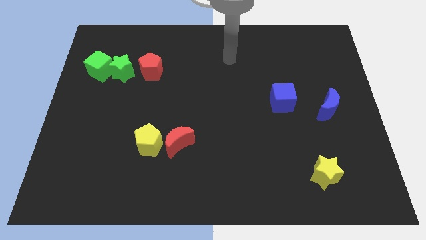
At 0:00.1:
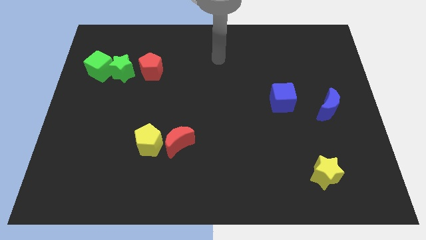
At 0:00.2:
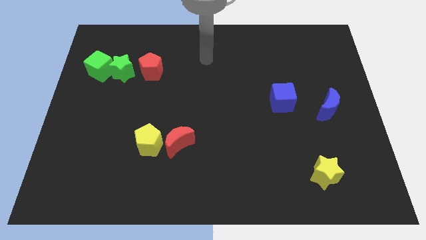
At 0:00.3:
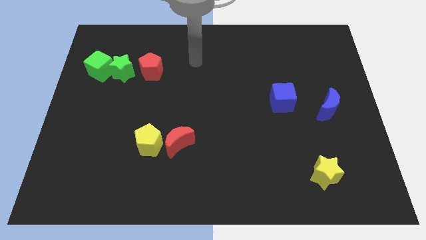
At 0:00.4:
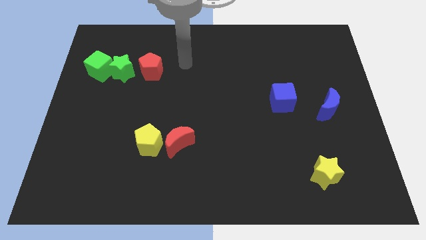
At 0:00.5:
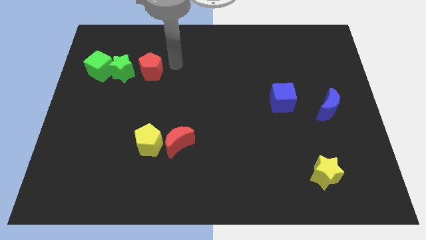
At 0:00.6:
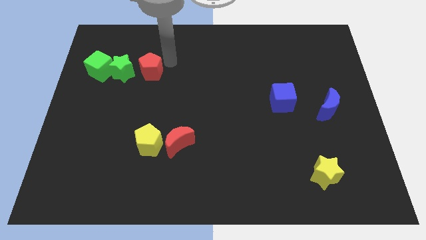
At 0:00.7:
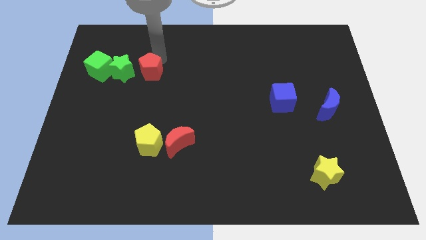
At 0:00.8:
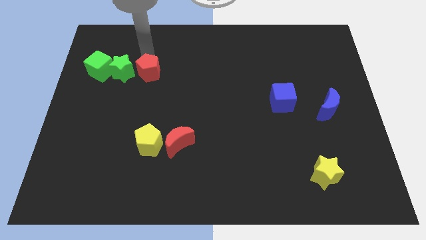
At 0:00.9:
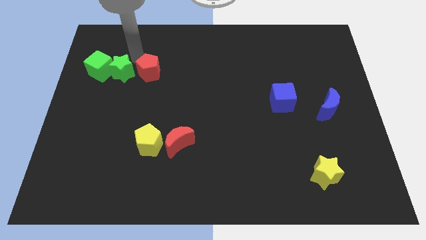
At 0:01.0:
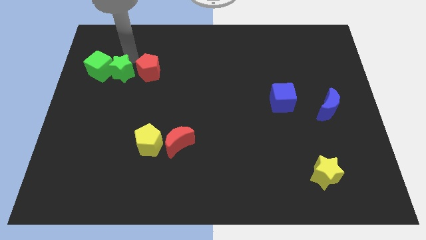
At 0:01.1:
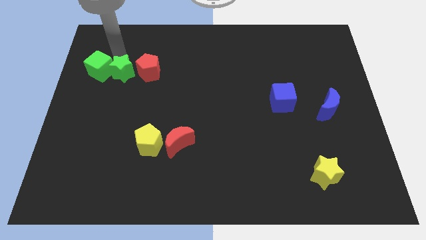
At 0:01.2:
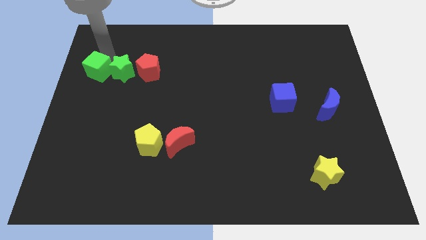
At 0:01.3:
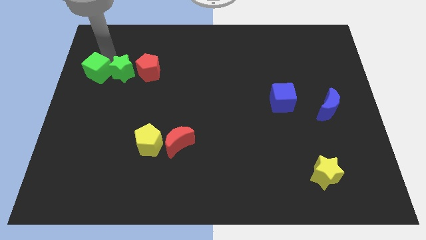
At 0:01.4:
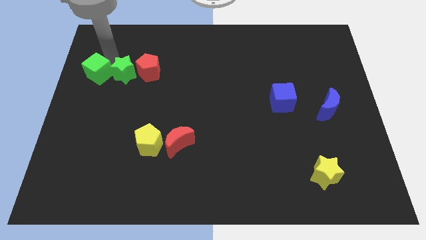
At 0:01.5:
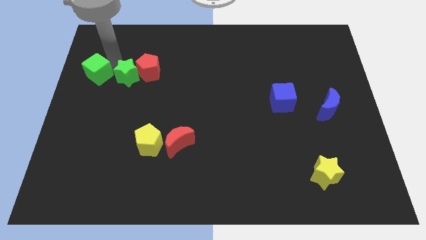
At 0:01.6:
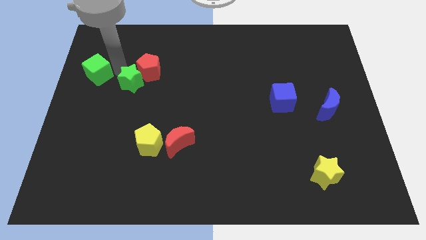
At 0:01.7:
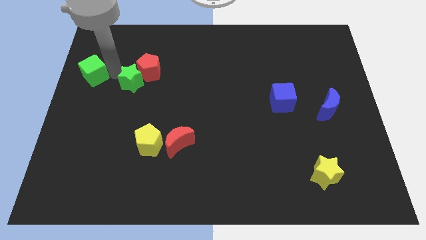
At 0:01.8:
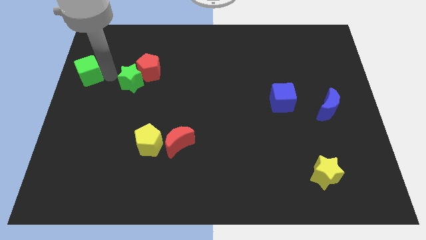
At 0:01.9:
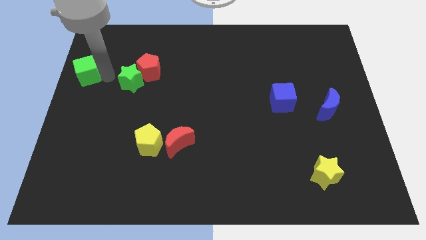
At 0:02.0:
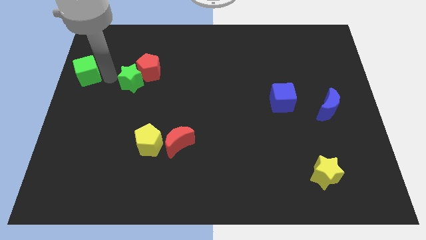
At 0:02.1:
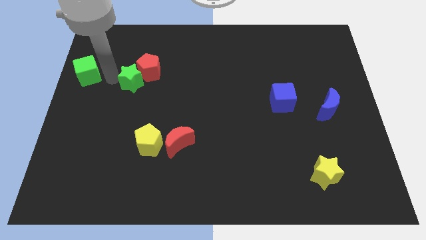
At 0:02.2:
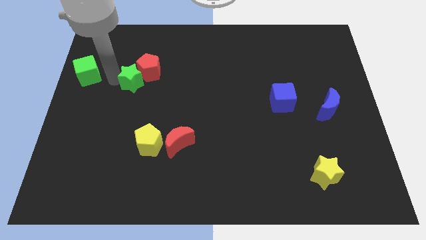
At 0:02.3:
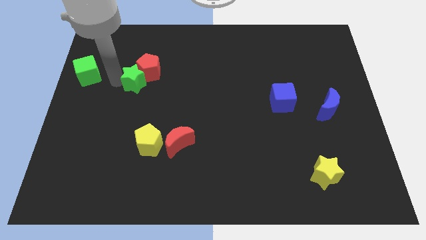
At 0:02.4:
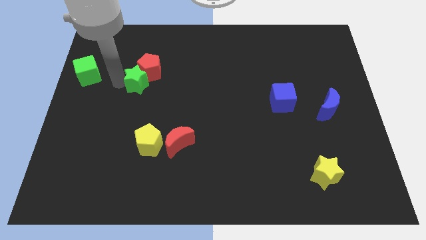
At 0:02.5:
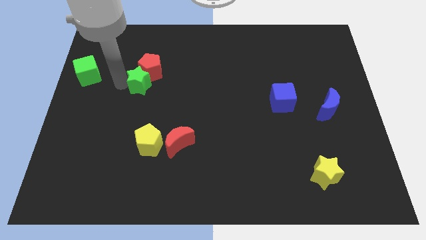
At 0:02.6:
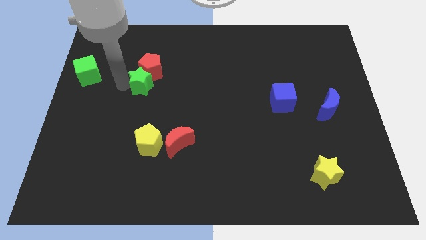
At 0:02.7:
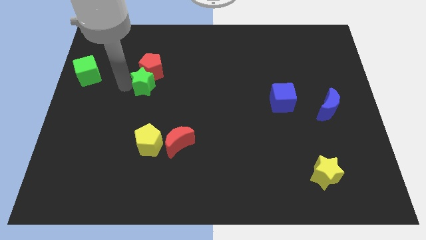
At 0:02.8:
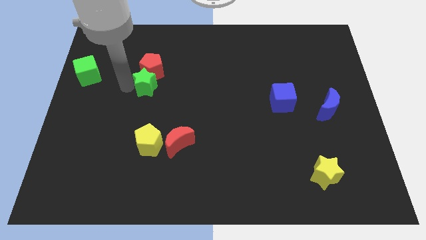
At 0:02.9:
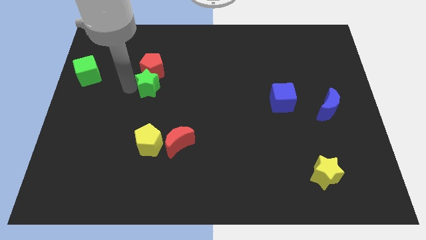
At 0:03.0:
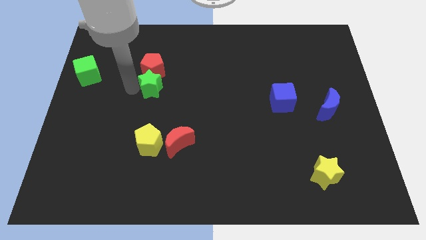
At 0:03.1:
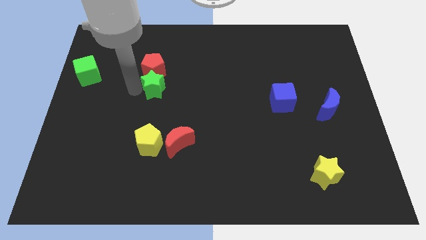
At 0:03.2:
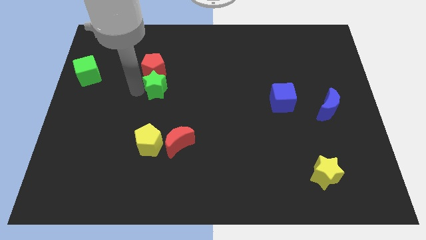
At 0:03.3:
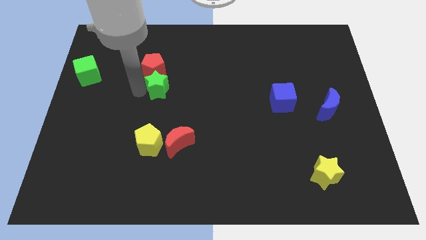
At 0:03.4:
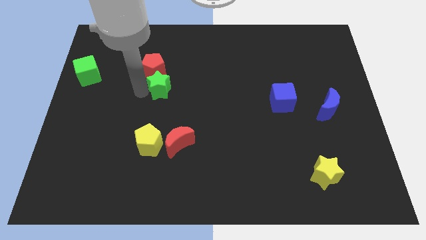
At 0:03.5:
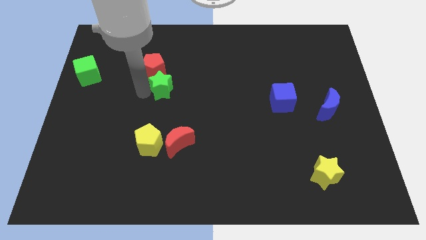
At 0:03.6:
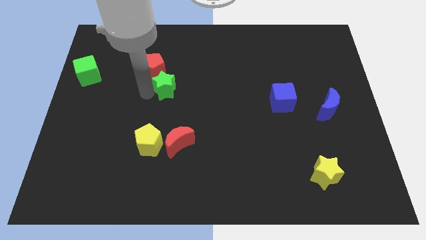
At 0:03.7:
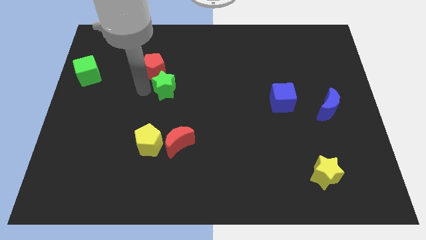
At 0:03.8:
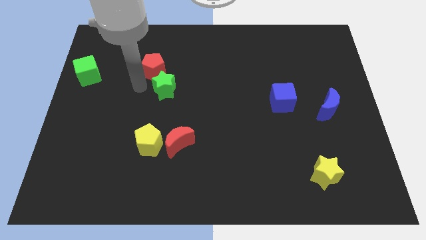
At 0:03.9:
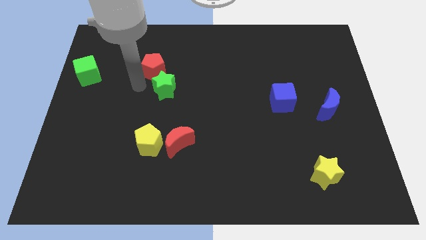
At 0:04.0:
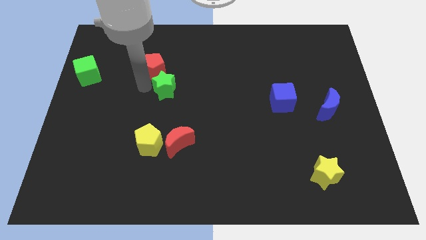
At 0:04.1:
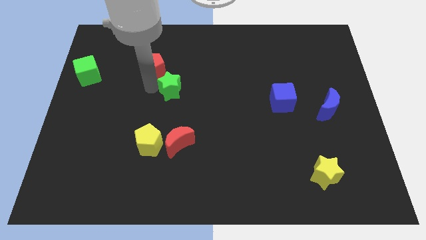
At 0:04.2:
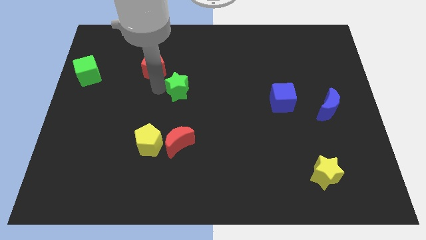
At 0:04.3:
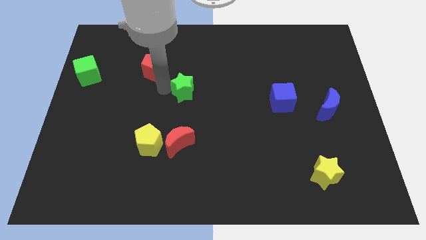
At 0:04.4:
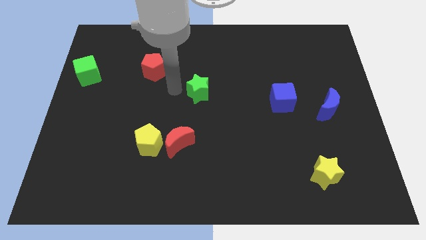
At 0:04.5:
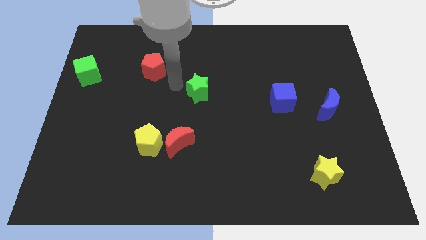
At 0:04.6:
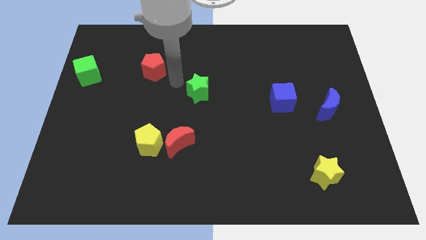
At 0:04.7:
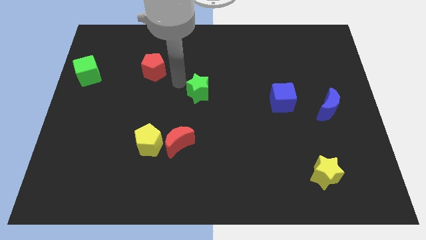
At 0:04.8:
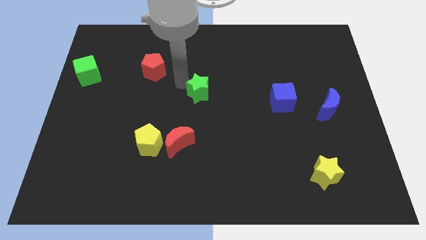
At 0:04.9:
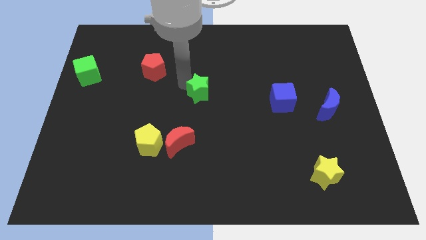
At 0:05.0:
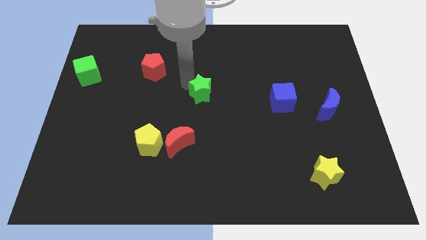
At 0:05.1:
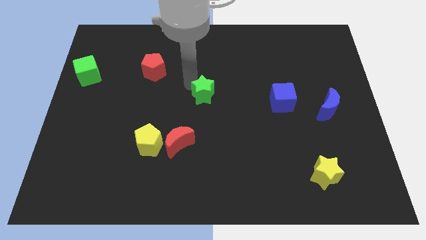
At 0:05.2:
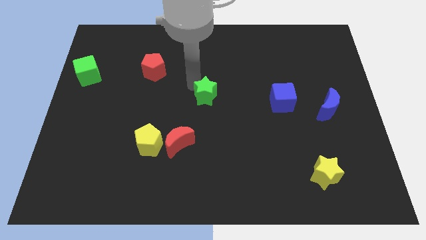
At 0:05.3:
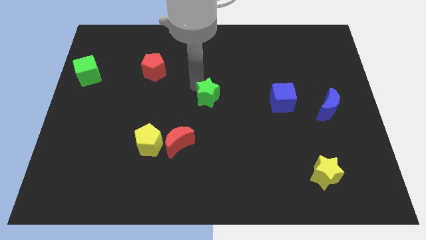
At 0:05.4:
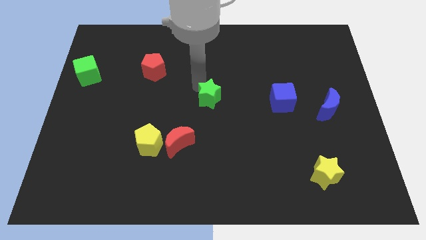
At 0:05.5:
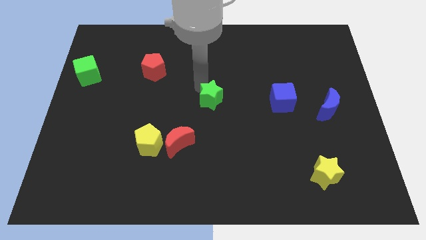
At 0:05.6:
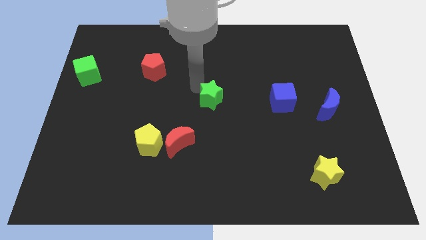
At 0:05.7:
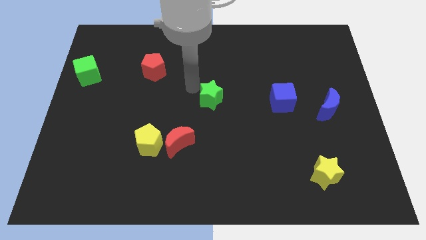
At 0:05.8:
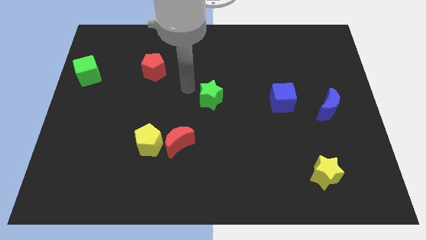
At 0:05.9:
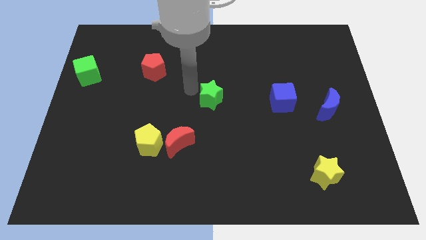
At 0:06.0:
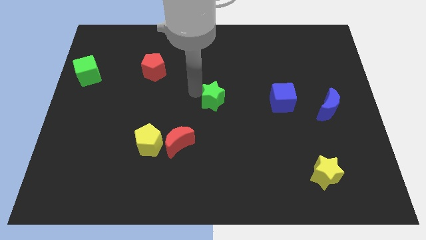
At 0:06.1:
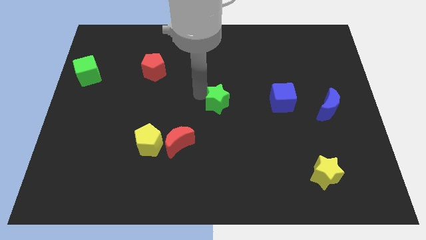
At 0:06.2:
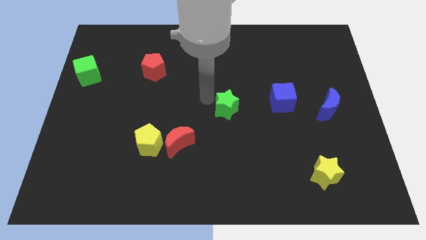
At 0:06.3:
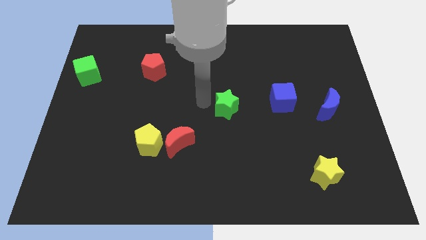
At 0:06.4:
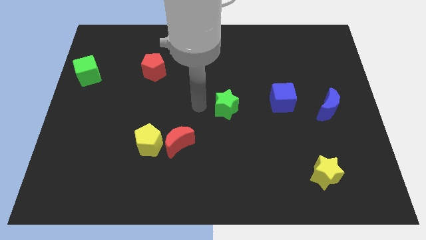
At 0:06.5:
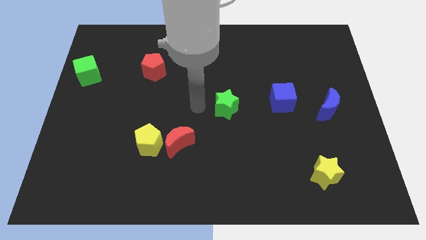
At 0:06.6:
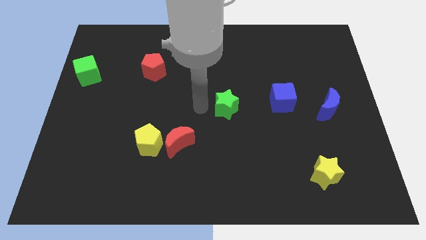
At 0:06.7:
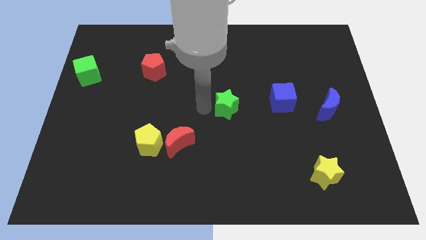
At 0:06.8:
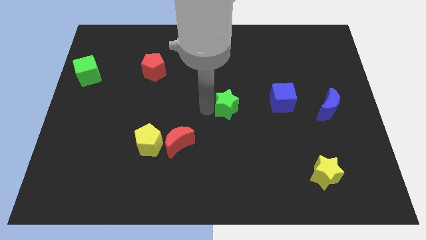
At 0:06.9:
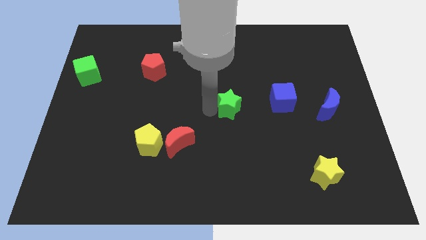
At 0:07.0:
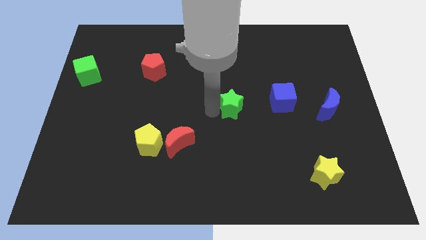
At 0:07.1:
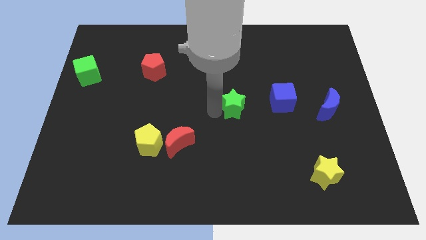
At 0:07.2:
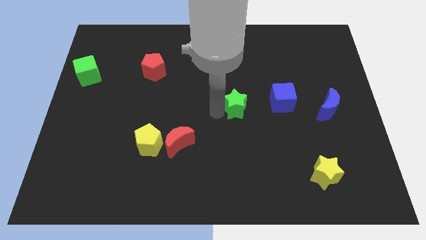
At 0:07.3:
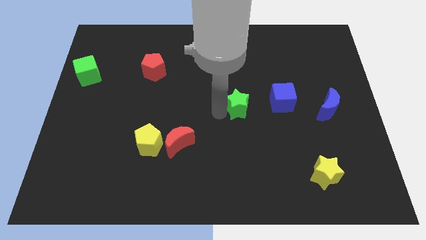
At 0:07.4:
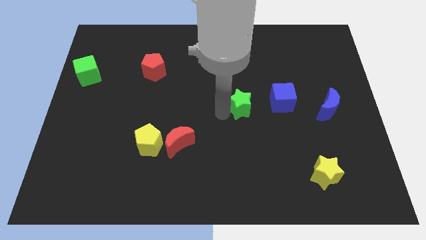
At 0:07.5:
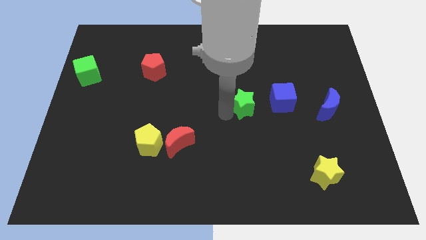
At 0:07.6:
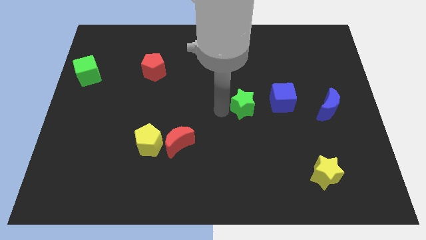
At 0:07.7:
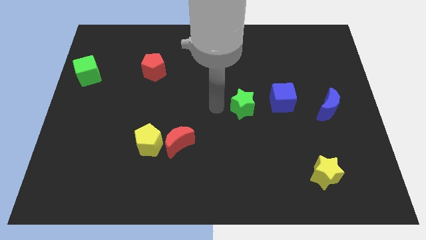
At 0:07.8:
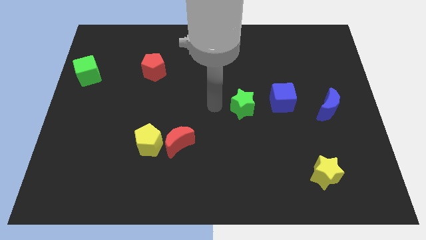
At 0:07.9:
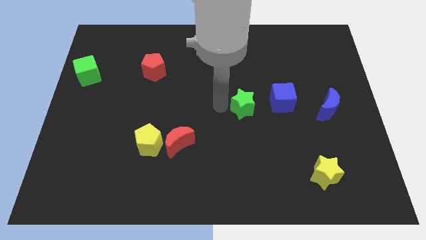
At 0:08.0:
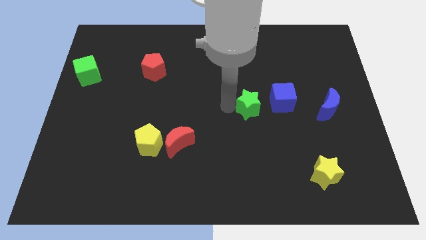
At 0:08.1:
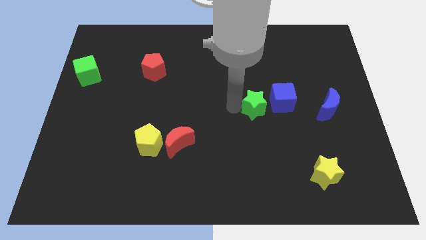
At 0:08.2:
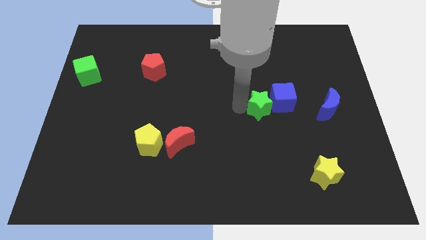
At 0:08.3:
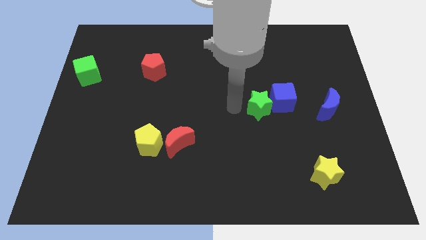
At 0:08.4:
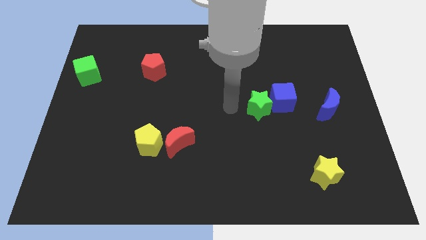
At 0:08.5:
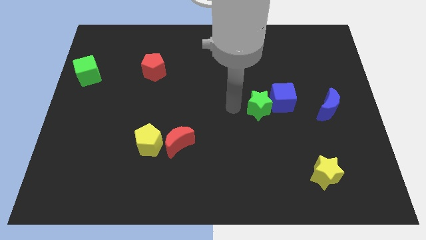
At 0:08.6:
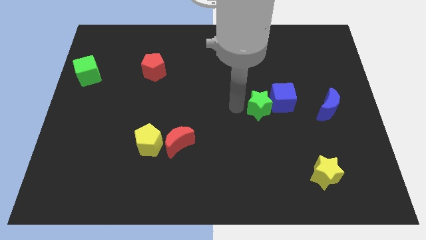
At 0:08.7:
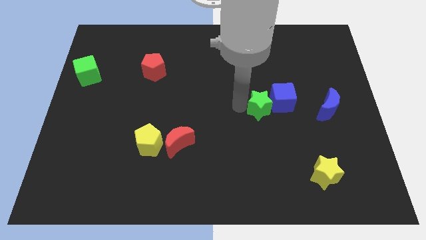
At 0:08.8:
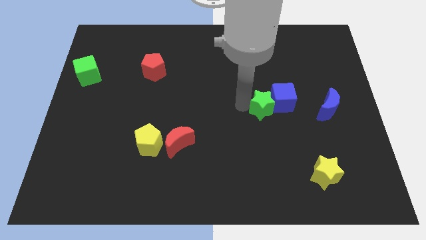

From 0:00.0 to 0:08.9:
slide the green star to the left of the blue moon
